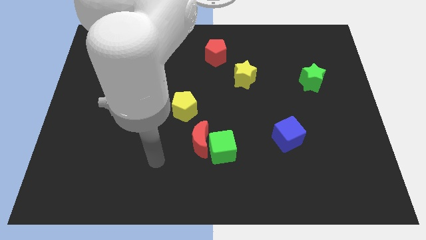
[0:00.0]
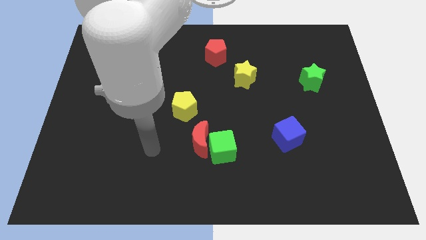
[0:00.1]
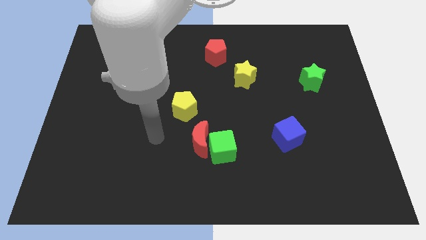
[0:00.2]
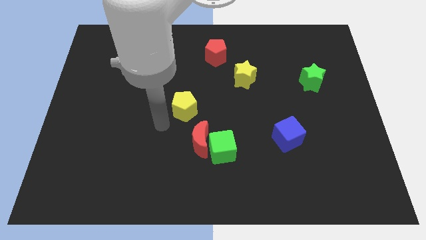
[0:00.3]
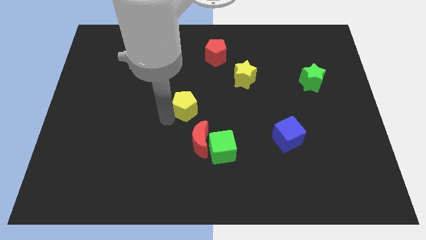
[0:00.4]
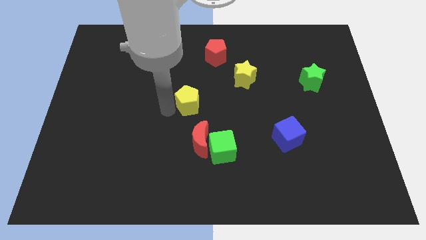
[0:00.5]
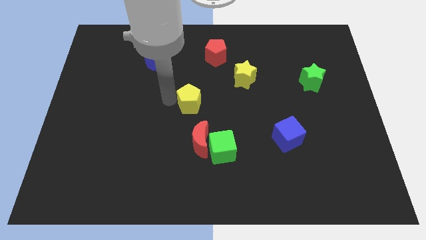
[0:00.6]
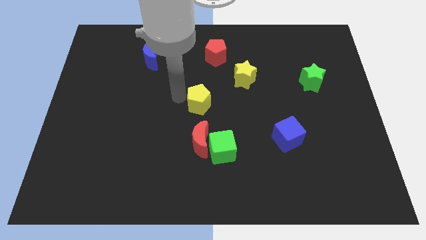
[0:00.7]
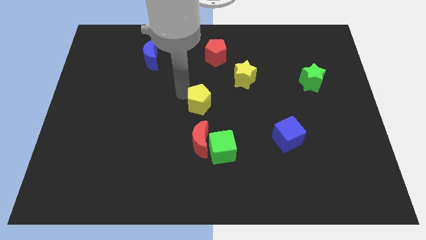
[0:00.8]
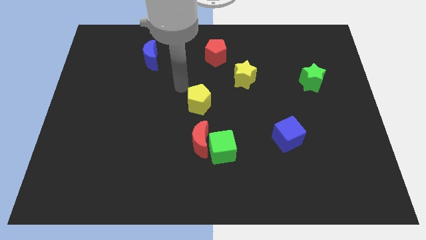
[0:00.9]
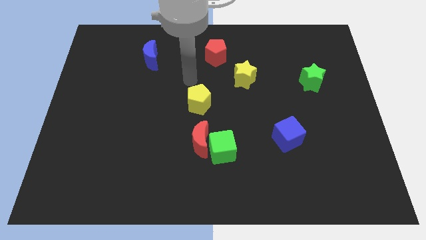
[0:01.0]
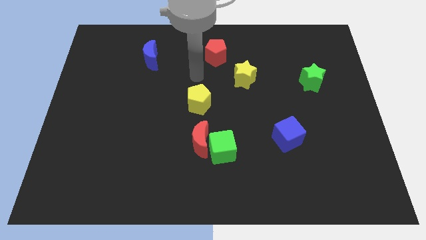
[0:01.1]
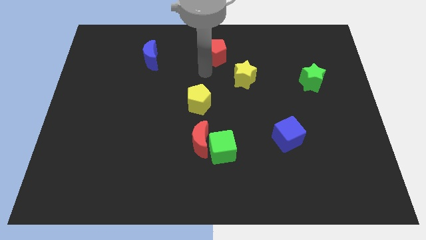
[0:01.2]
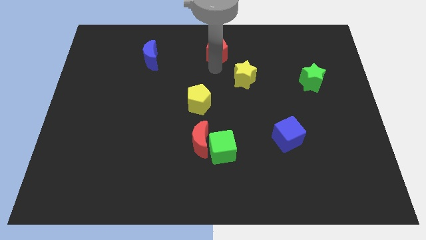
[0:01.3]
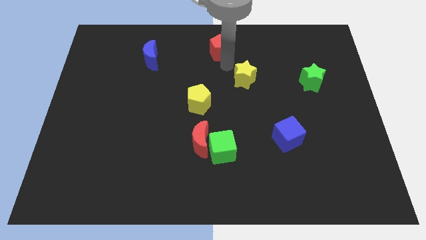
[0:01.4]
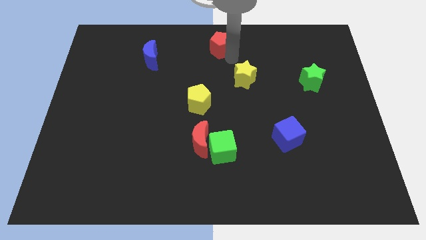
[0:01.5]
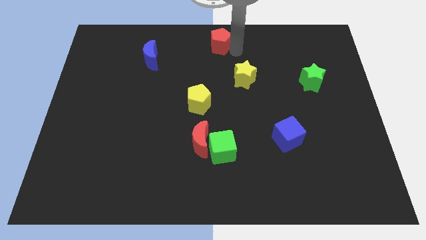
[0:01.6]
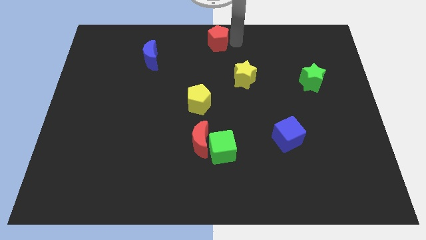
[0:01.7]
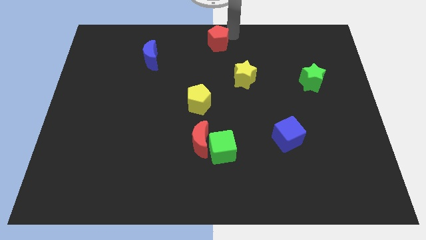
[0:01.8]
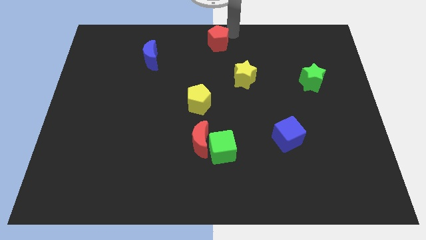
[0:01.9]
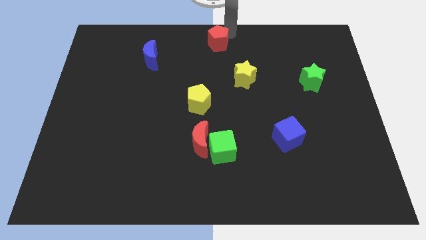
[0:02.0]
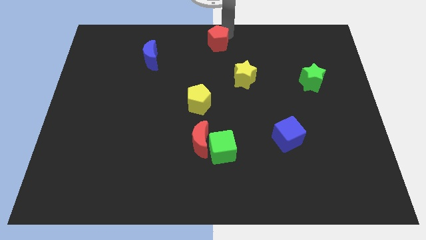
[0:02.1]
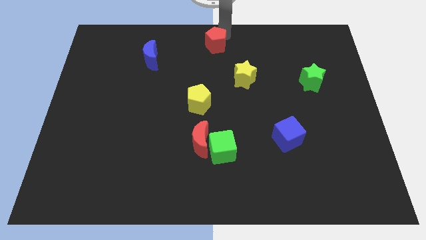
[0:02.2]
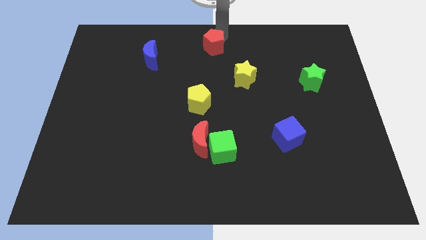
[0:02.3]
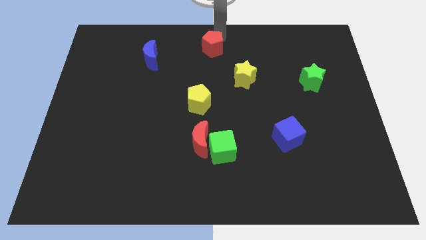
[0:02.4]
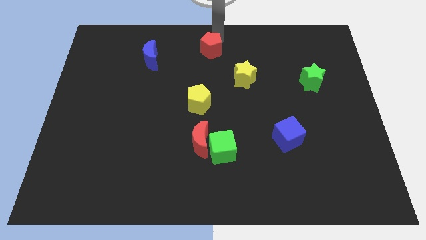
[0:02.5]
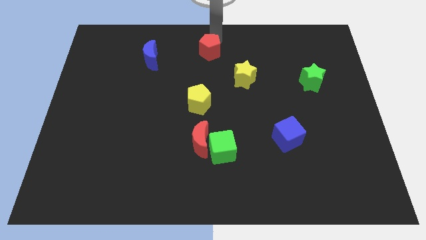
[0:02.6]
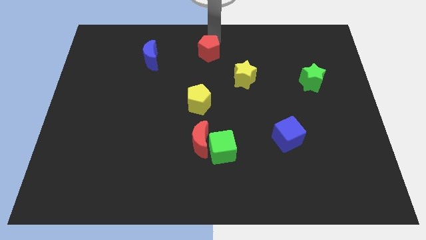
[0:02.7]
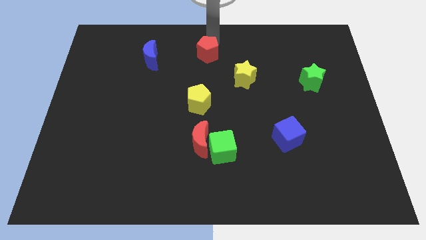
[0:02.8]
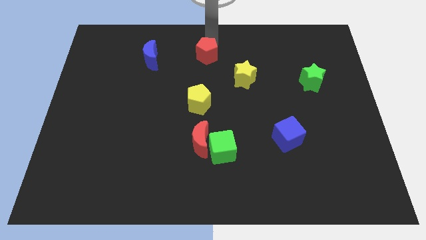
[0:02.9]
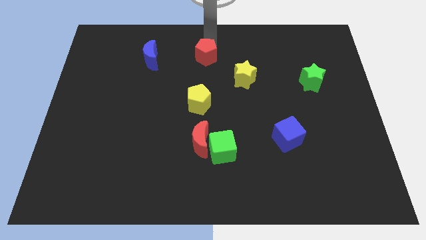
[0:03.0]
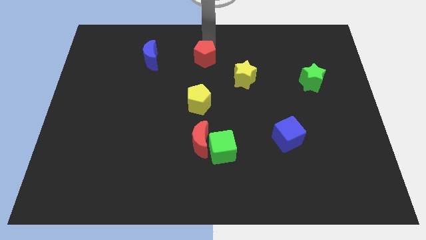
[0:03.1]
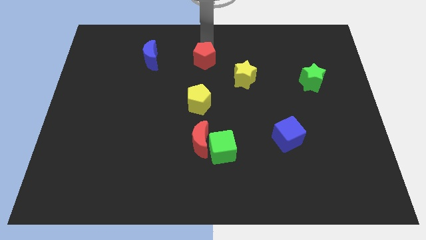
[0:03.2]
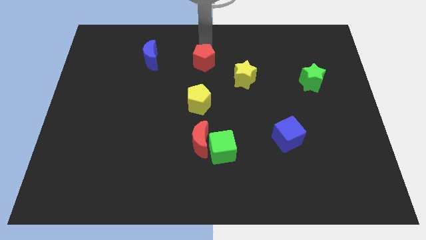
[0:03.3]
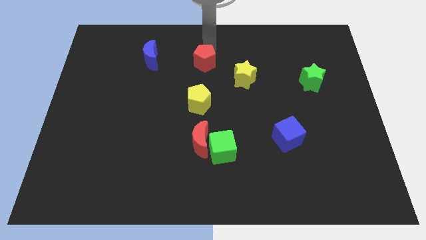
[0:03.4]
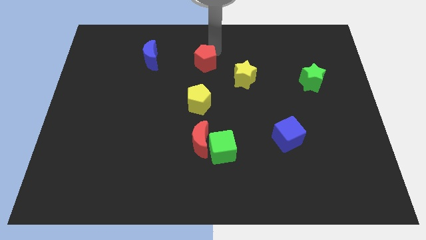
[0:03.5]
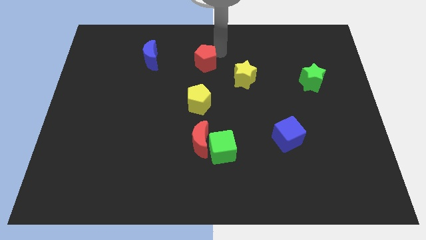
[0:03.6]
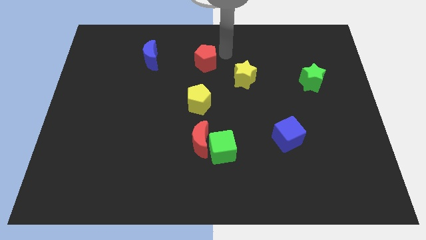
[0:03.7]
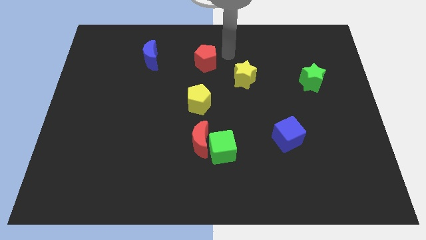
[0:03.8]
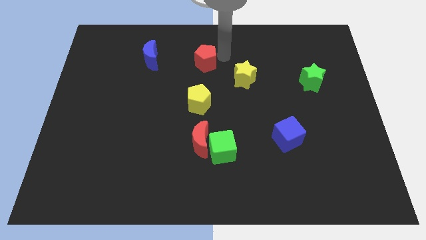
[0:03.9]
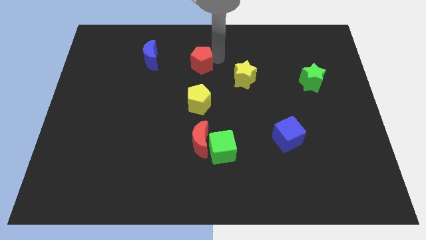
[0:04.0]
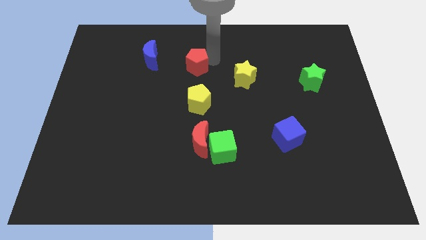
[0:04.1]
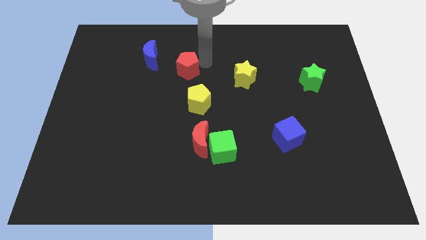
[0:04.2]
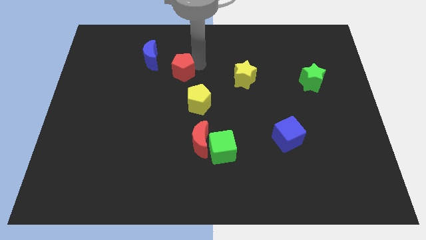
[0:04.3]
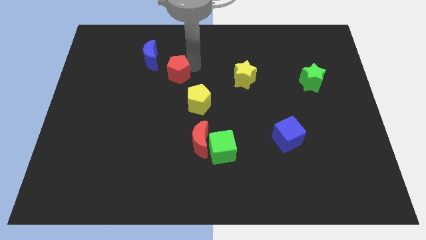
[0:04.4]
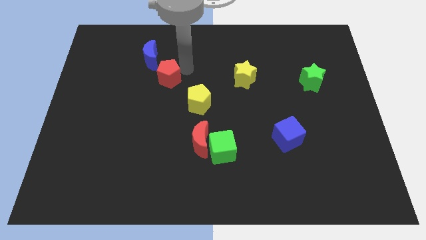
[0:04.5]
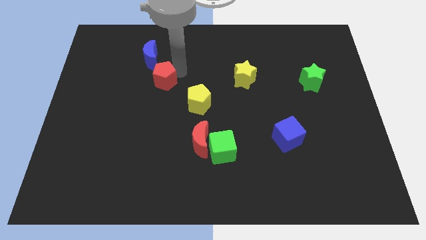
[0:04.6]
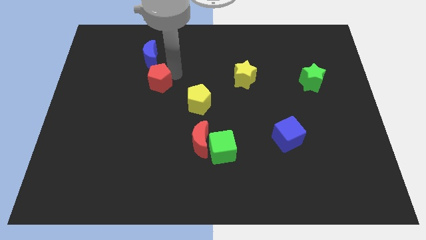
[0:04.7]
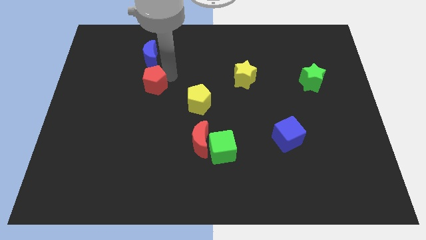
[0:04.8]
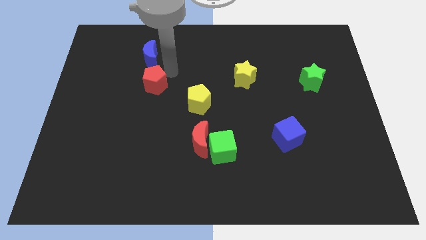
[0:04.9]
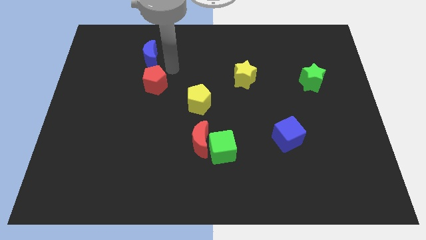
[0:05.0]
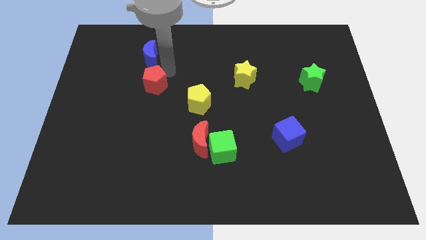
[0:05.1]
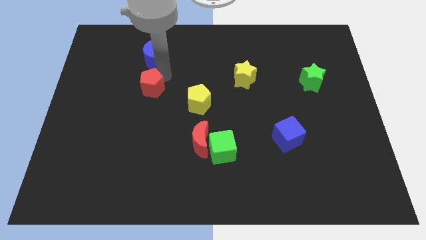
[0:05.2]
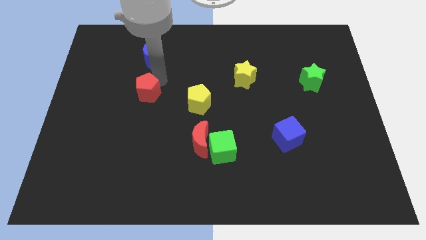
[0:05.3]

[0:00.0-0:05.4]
slide the red pentagon diagonally down and to the left

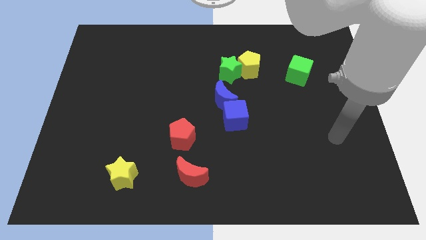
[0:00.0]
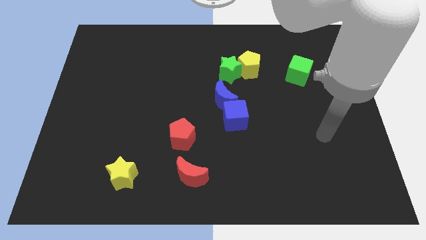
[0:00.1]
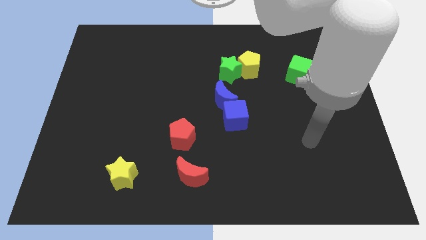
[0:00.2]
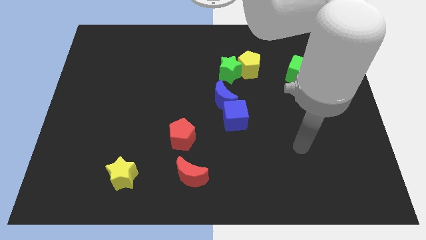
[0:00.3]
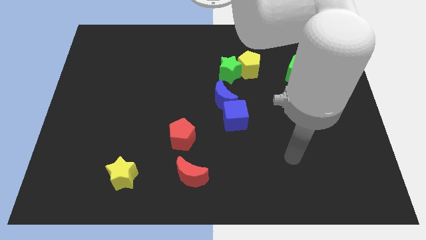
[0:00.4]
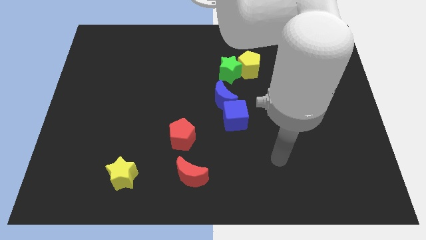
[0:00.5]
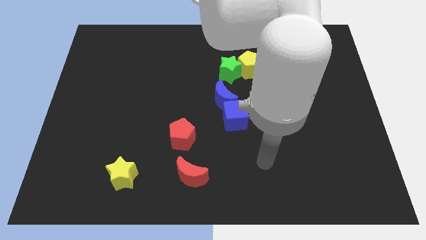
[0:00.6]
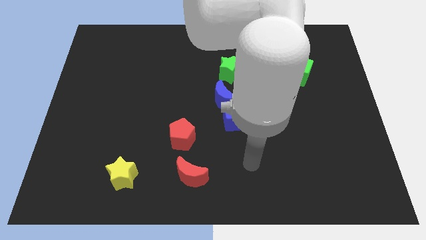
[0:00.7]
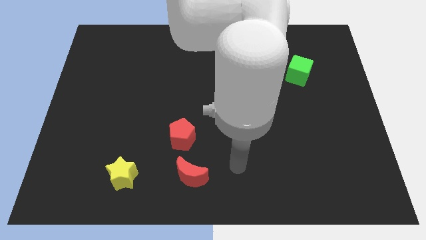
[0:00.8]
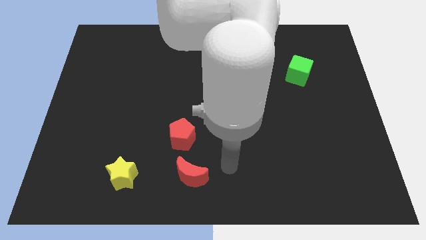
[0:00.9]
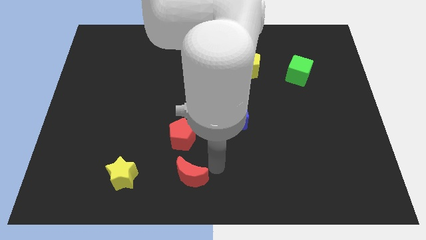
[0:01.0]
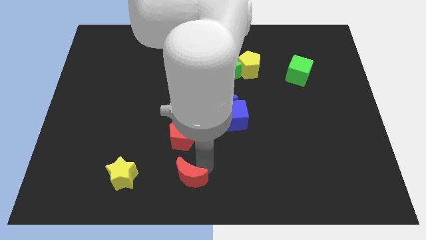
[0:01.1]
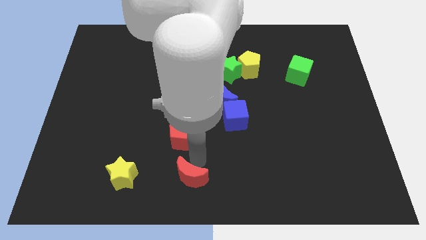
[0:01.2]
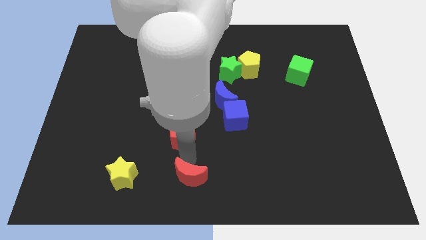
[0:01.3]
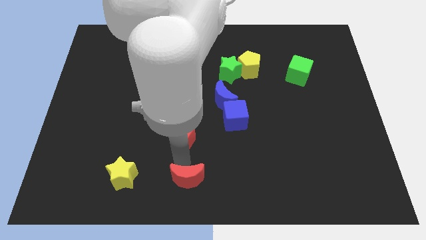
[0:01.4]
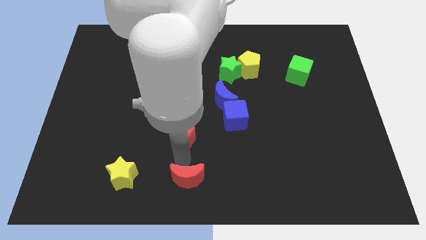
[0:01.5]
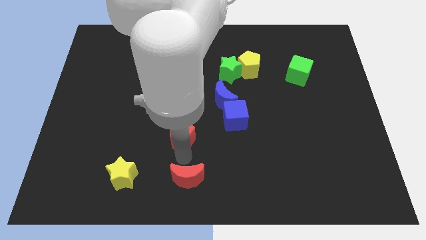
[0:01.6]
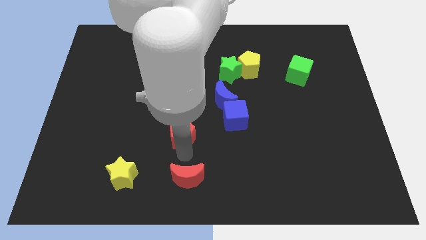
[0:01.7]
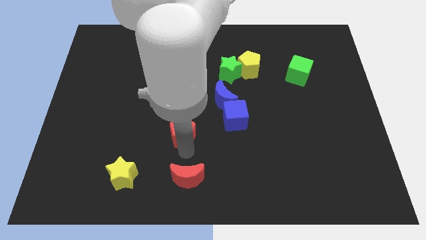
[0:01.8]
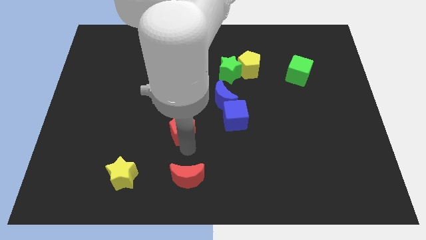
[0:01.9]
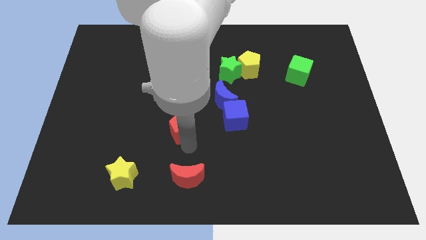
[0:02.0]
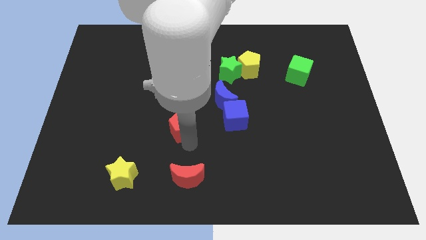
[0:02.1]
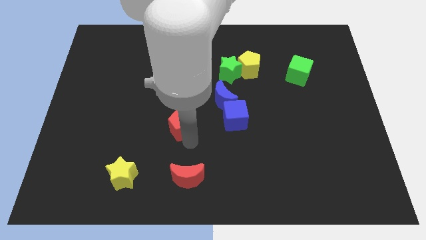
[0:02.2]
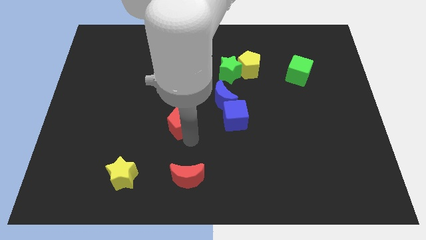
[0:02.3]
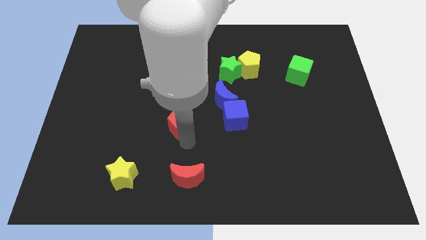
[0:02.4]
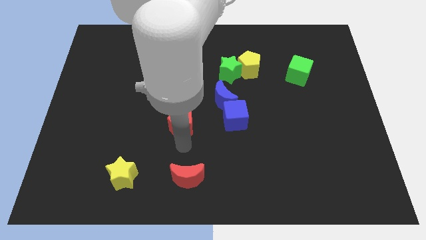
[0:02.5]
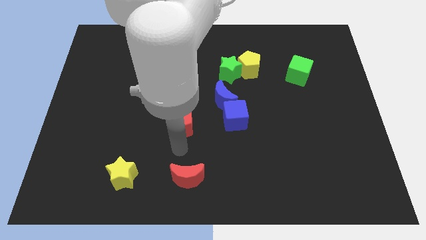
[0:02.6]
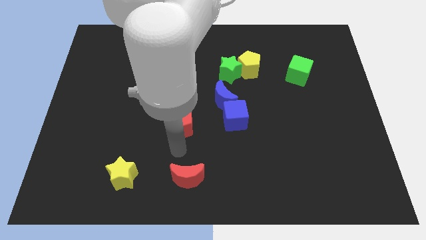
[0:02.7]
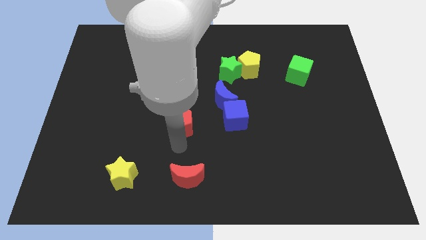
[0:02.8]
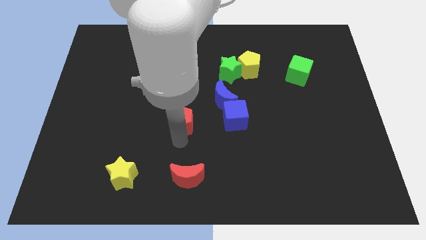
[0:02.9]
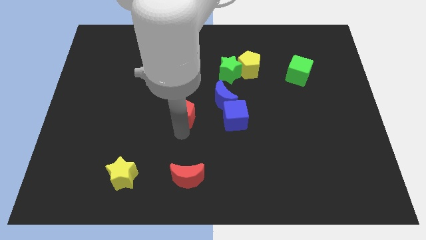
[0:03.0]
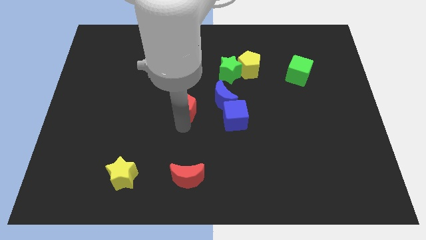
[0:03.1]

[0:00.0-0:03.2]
slide the red pentagon upwards a little
